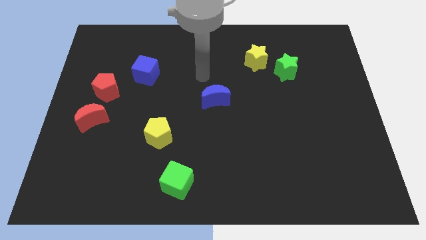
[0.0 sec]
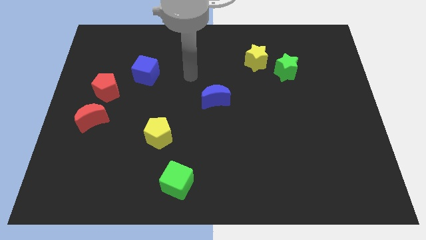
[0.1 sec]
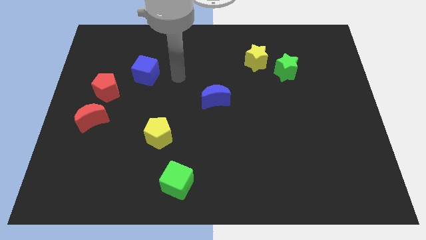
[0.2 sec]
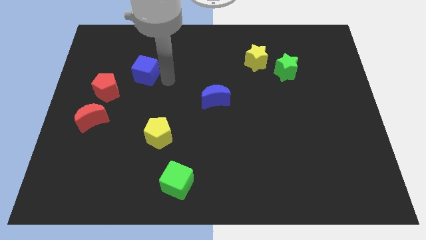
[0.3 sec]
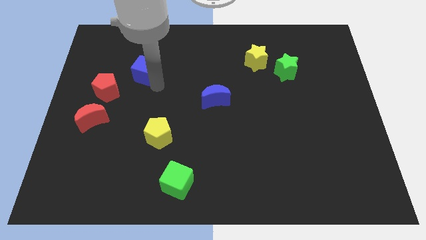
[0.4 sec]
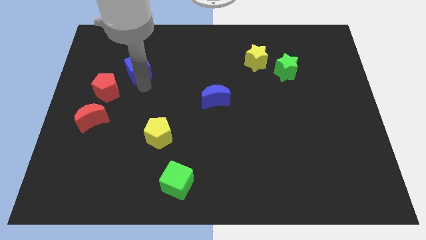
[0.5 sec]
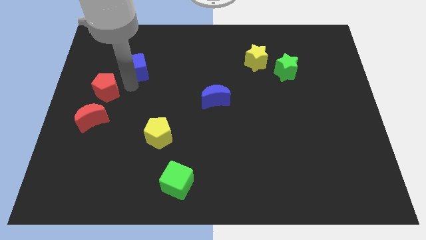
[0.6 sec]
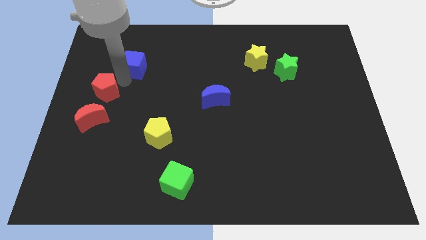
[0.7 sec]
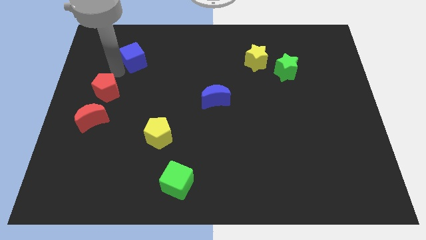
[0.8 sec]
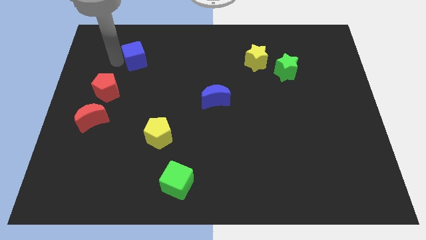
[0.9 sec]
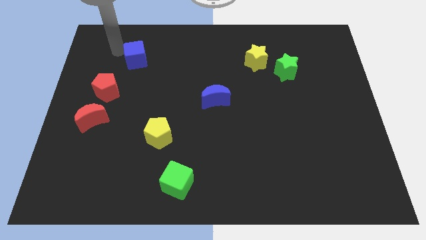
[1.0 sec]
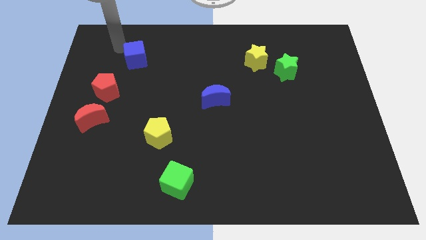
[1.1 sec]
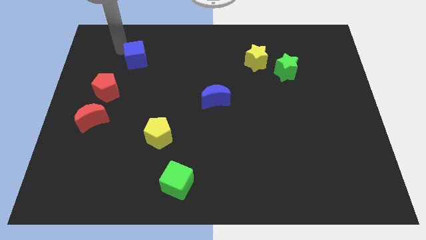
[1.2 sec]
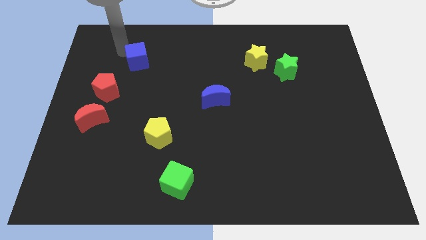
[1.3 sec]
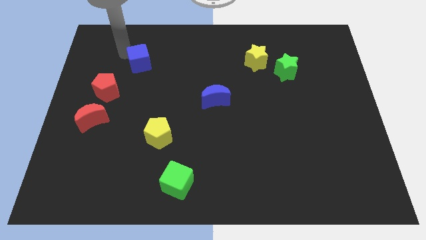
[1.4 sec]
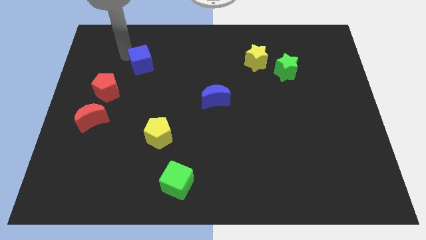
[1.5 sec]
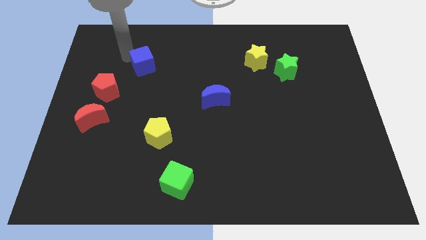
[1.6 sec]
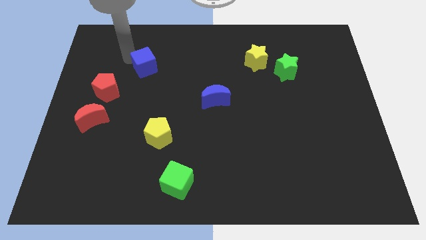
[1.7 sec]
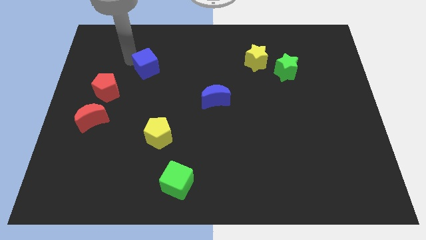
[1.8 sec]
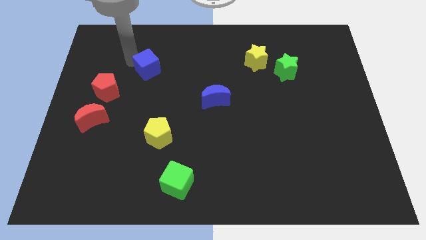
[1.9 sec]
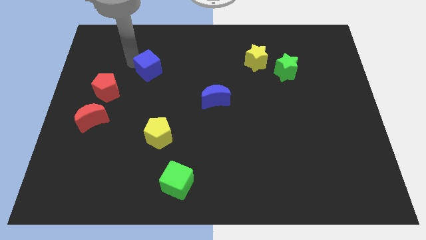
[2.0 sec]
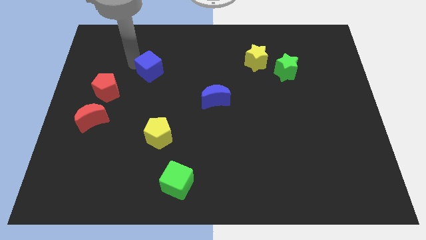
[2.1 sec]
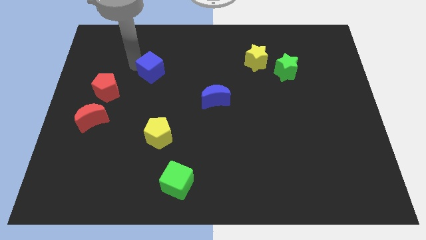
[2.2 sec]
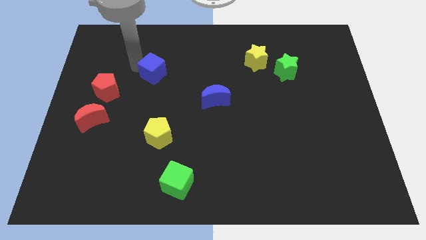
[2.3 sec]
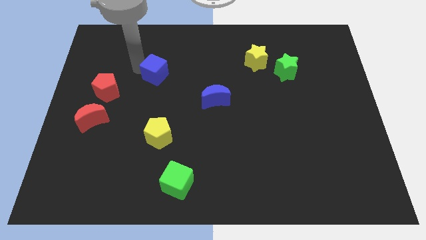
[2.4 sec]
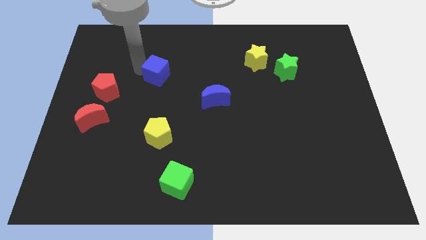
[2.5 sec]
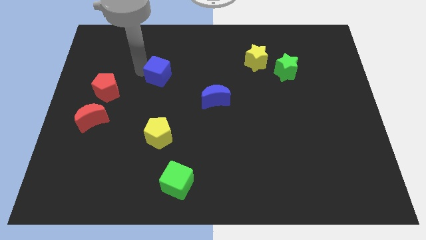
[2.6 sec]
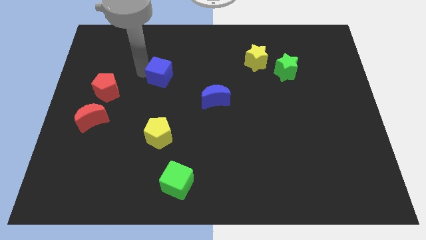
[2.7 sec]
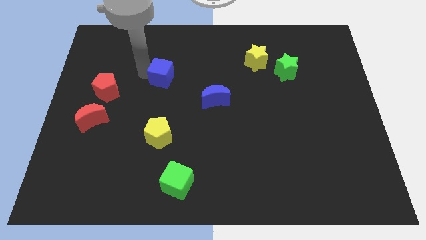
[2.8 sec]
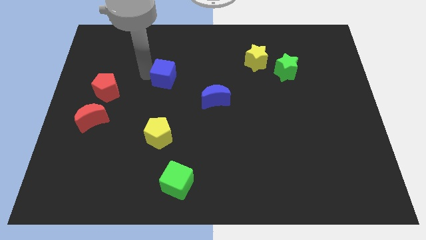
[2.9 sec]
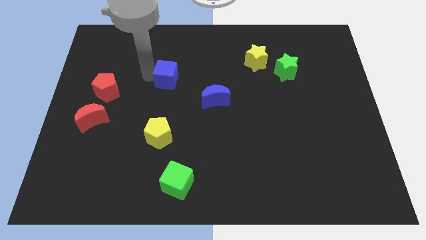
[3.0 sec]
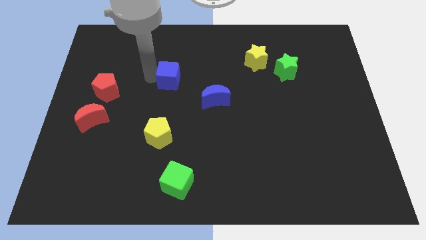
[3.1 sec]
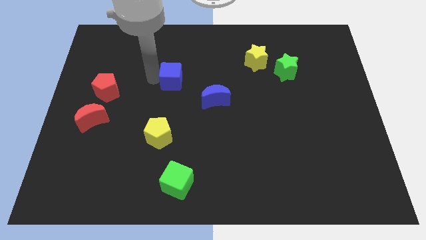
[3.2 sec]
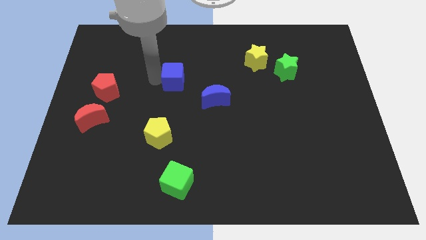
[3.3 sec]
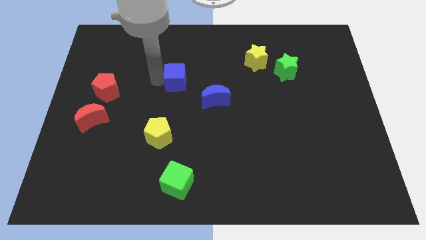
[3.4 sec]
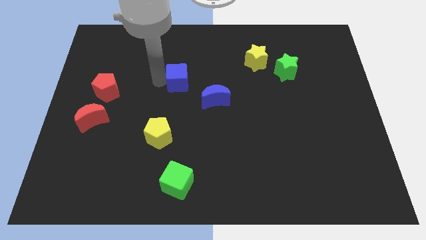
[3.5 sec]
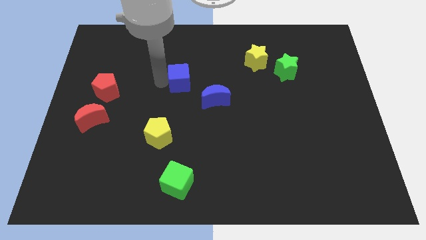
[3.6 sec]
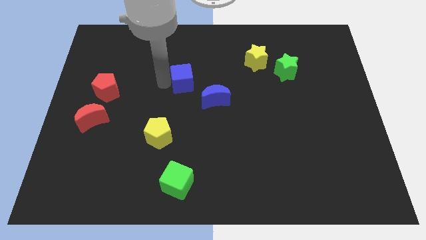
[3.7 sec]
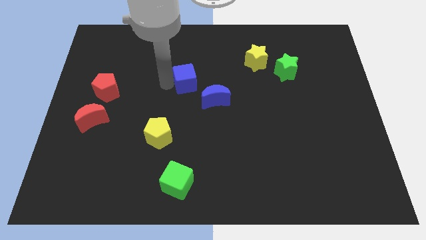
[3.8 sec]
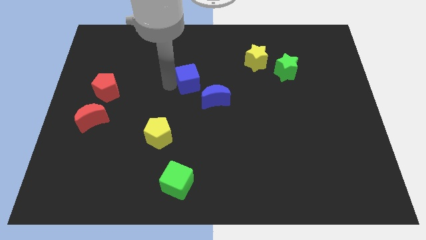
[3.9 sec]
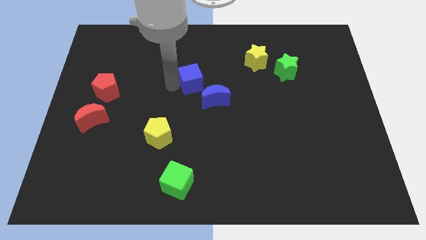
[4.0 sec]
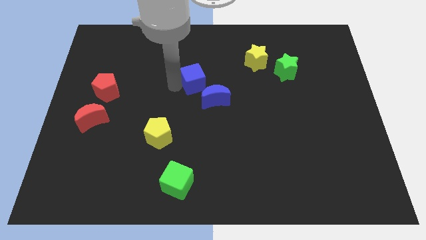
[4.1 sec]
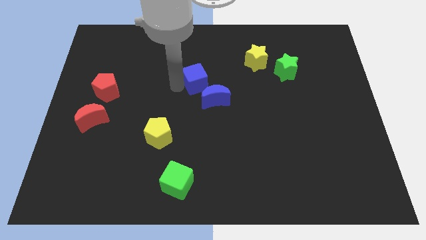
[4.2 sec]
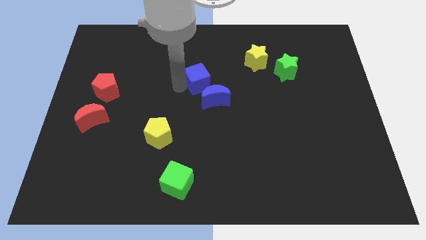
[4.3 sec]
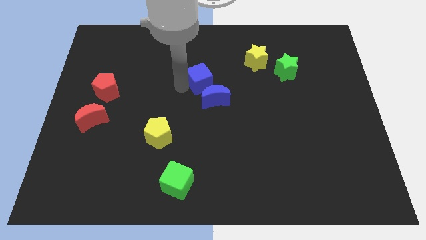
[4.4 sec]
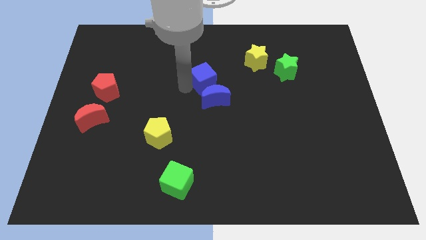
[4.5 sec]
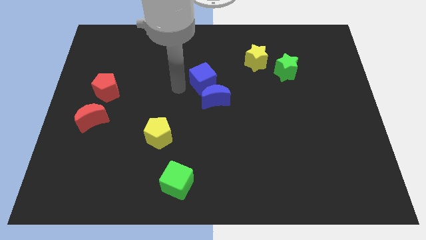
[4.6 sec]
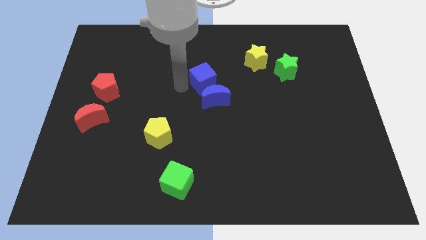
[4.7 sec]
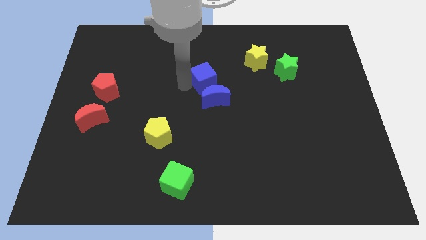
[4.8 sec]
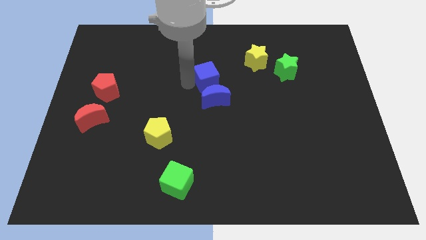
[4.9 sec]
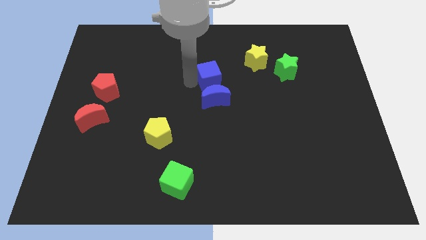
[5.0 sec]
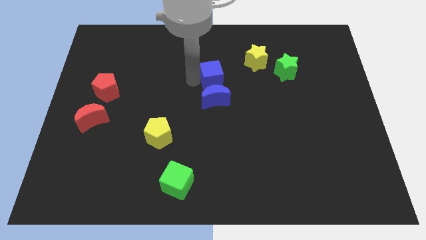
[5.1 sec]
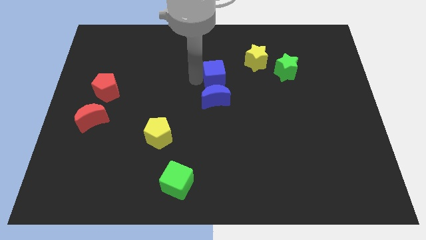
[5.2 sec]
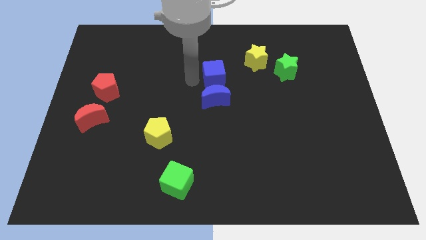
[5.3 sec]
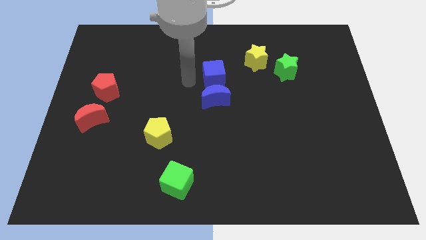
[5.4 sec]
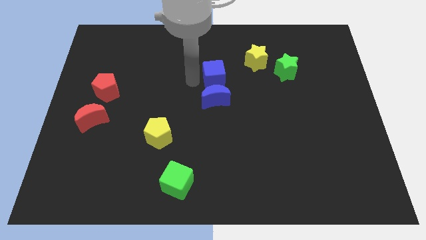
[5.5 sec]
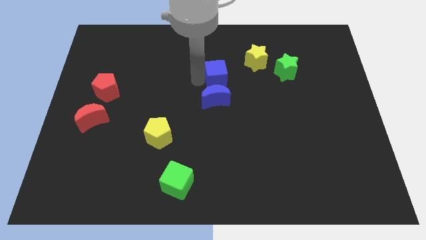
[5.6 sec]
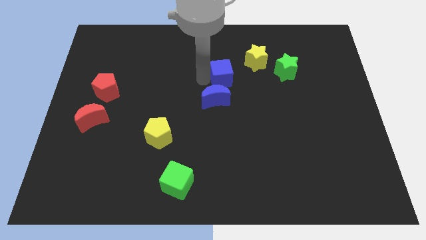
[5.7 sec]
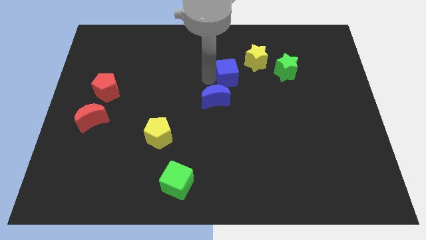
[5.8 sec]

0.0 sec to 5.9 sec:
put the blue cube to the left side of the green star

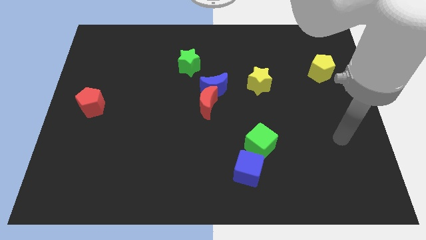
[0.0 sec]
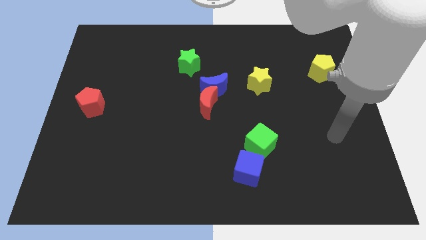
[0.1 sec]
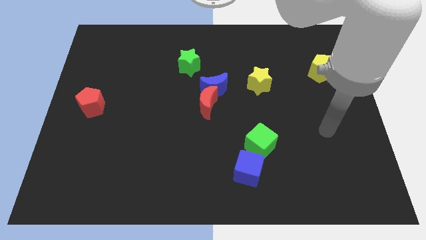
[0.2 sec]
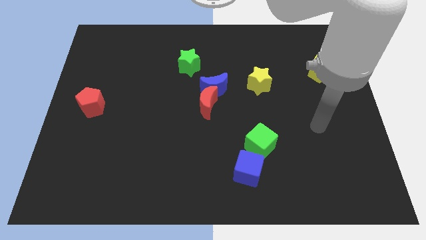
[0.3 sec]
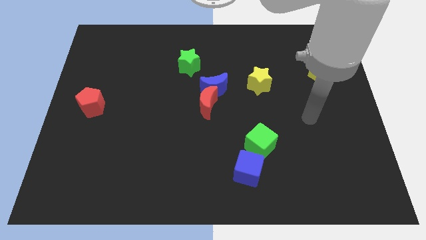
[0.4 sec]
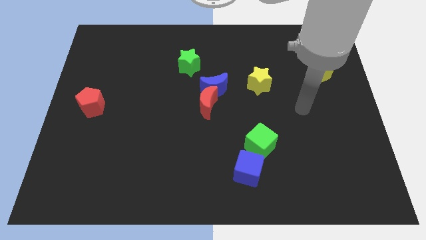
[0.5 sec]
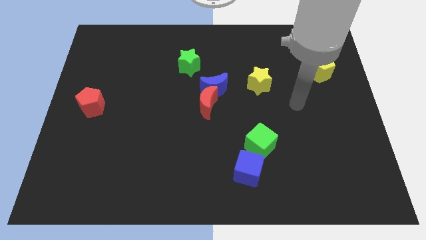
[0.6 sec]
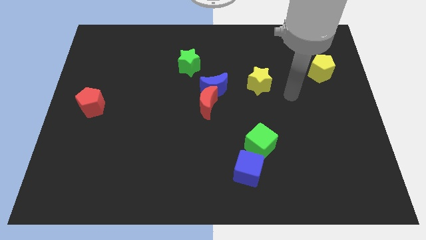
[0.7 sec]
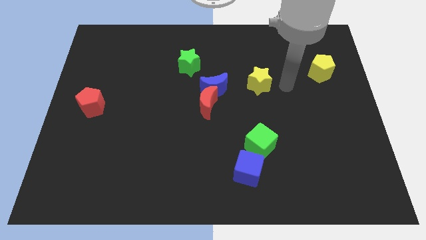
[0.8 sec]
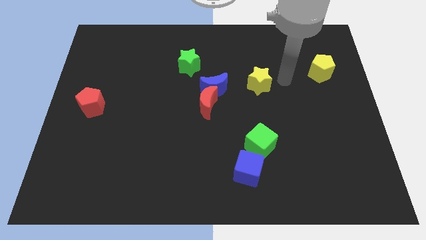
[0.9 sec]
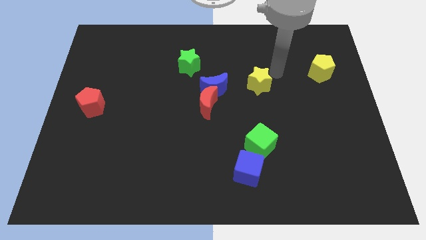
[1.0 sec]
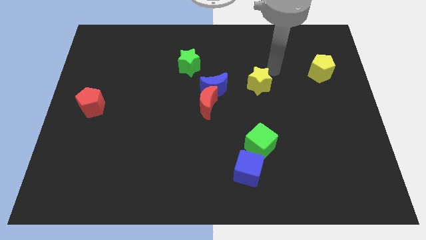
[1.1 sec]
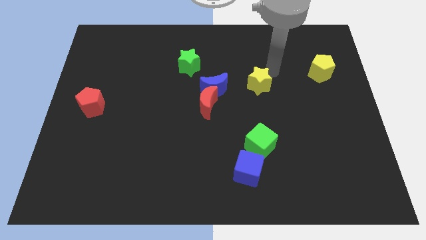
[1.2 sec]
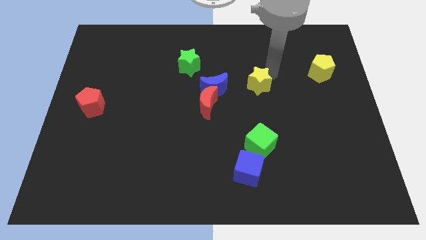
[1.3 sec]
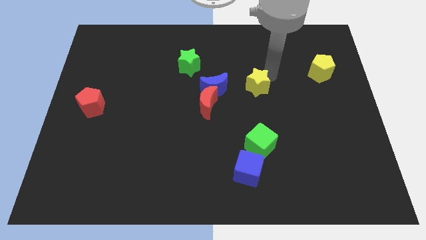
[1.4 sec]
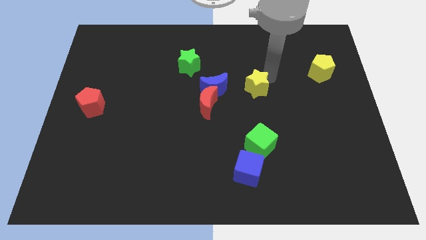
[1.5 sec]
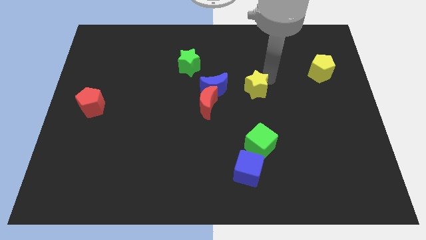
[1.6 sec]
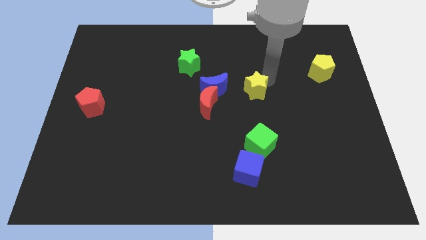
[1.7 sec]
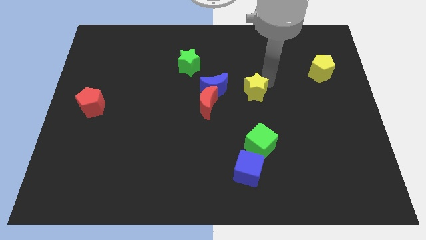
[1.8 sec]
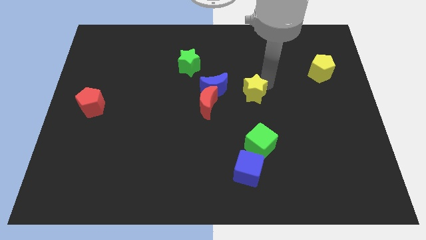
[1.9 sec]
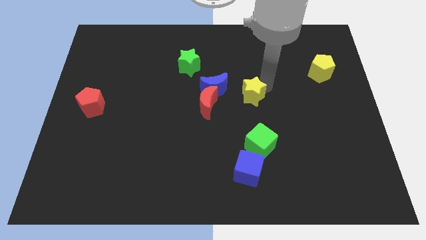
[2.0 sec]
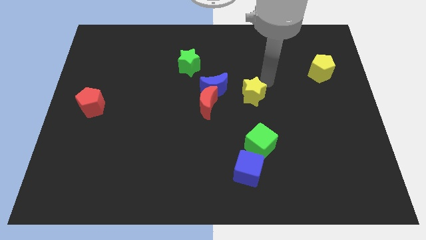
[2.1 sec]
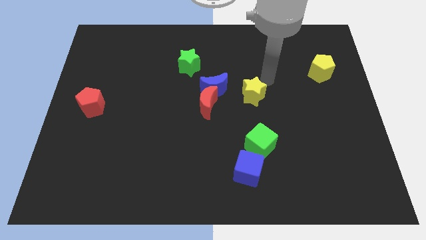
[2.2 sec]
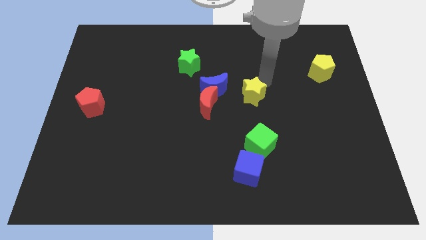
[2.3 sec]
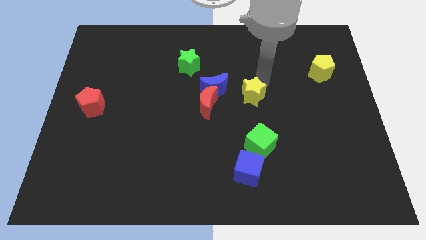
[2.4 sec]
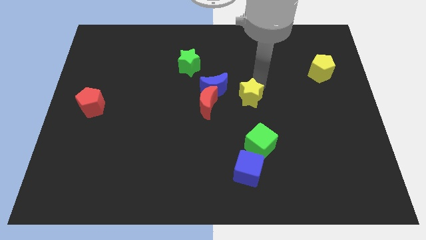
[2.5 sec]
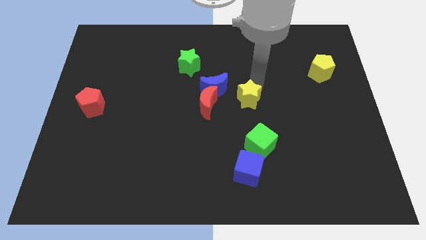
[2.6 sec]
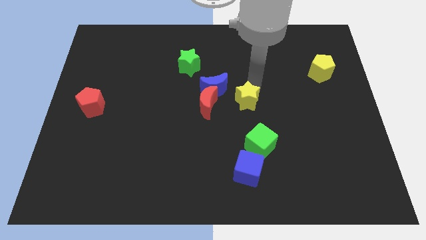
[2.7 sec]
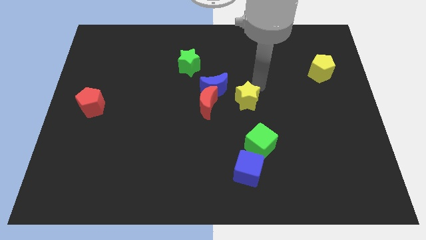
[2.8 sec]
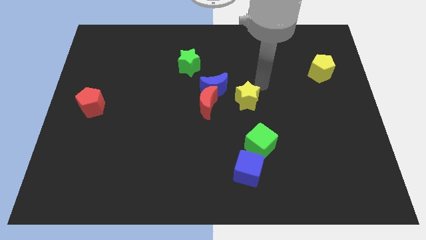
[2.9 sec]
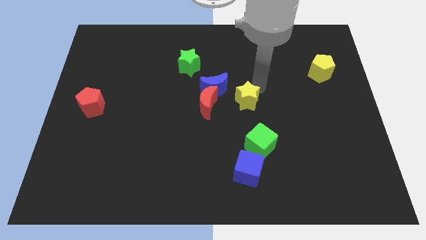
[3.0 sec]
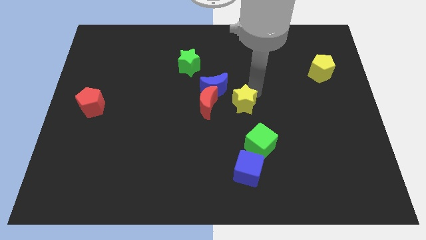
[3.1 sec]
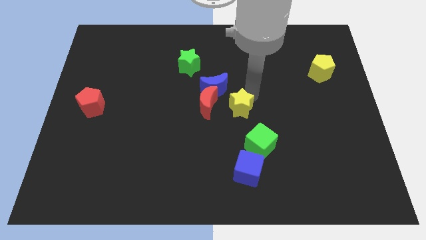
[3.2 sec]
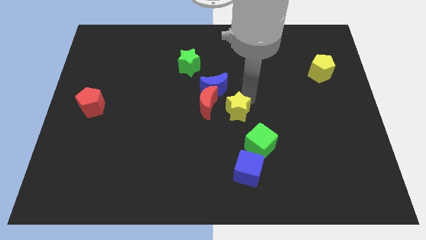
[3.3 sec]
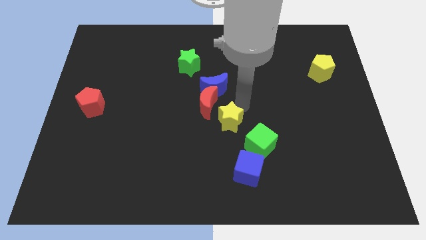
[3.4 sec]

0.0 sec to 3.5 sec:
move the yellow star to the bottom of the red moon
